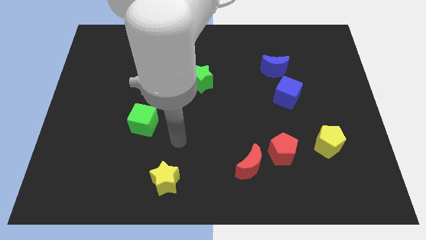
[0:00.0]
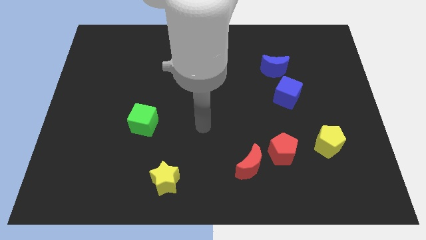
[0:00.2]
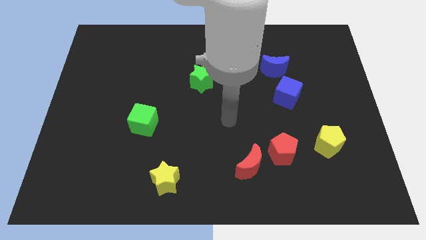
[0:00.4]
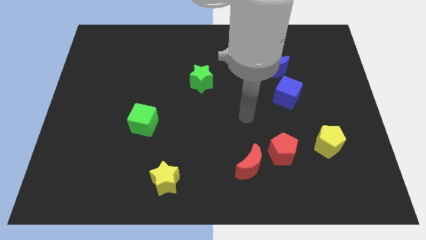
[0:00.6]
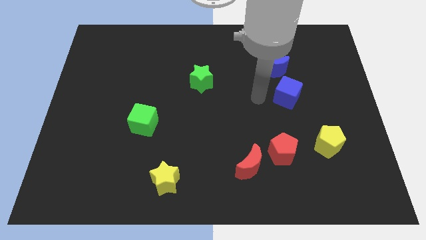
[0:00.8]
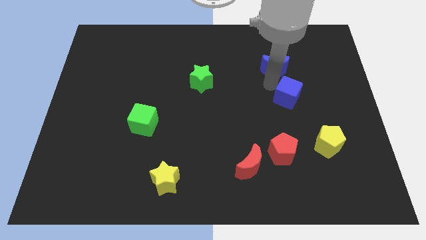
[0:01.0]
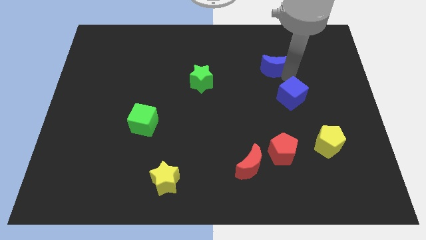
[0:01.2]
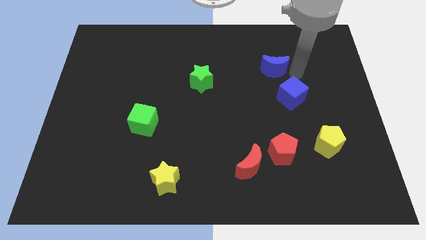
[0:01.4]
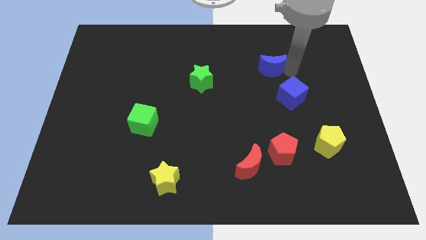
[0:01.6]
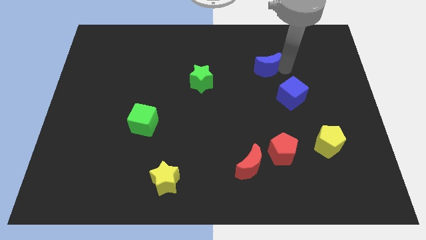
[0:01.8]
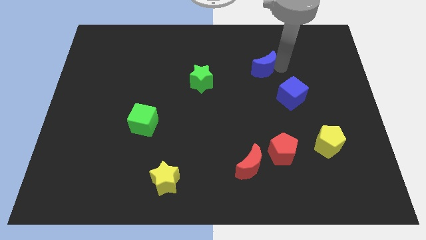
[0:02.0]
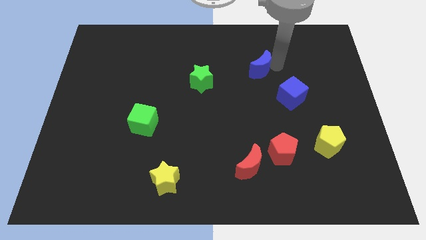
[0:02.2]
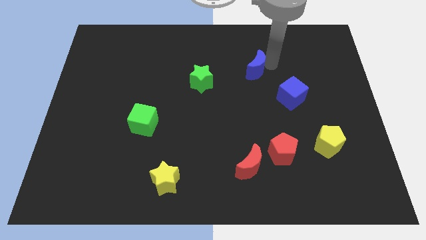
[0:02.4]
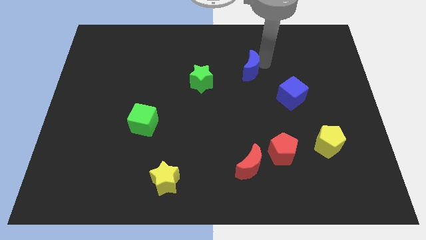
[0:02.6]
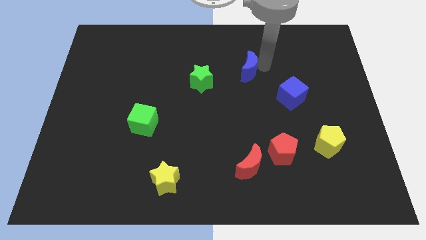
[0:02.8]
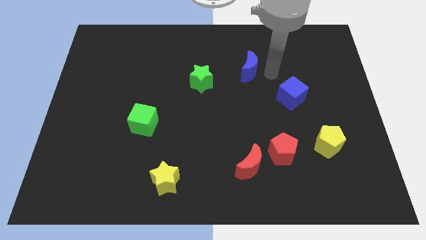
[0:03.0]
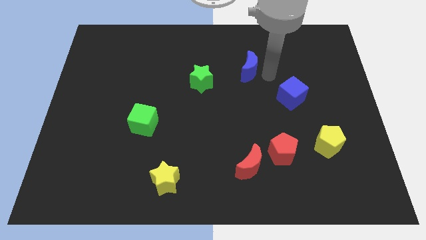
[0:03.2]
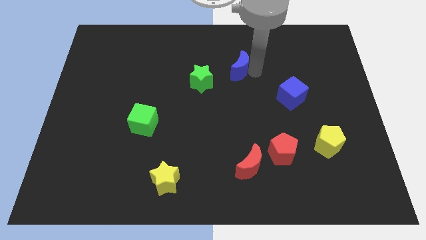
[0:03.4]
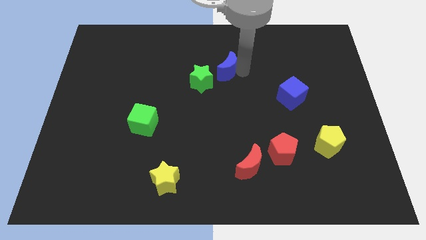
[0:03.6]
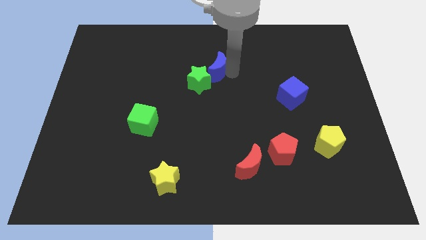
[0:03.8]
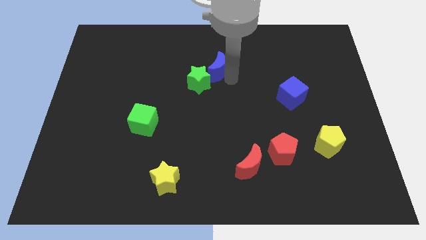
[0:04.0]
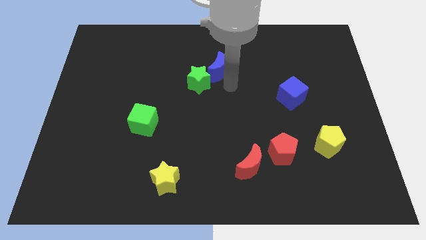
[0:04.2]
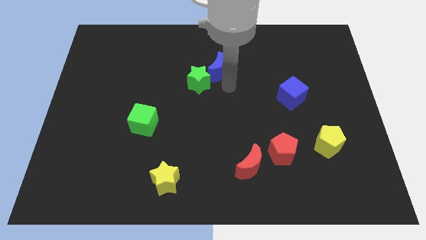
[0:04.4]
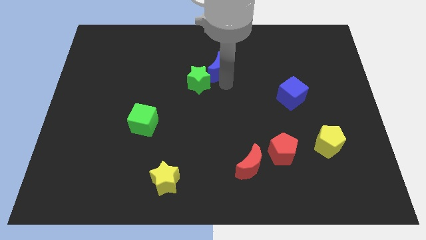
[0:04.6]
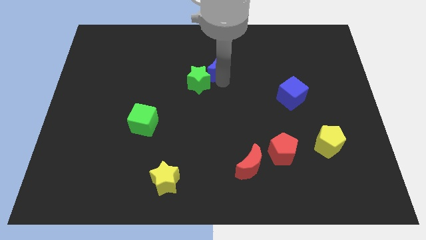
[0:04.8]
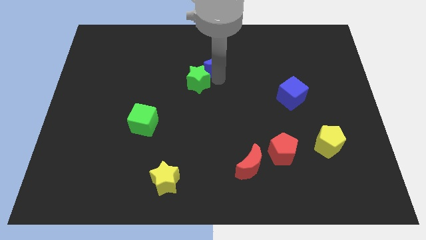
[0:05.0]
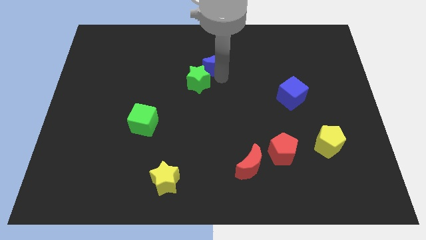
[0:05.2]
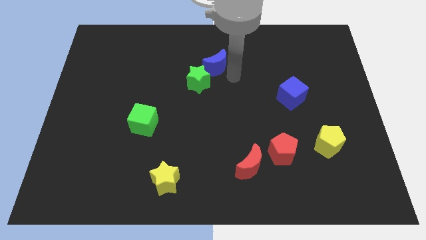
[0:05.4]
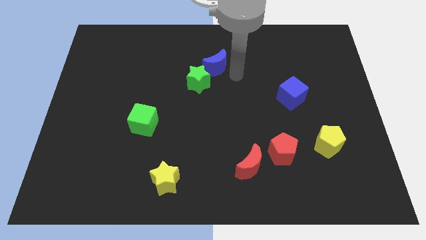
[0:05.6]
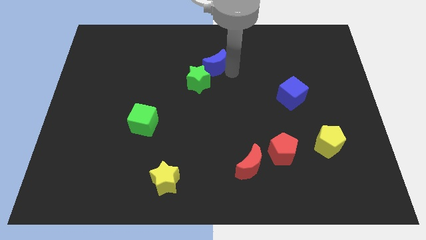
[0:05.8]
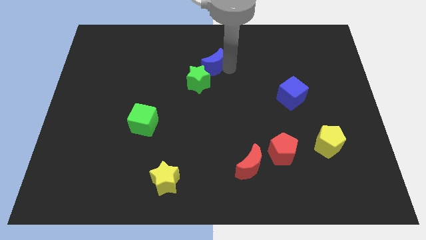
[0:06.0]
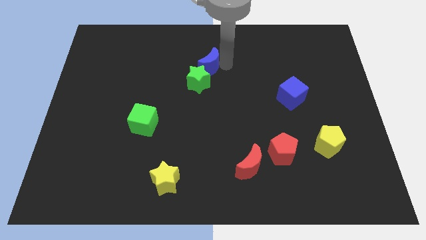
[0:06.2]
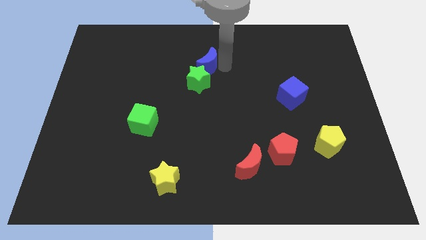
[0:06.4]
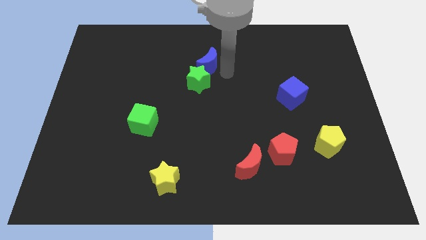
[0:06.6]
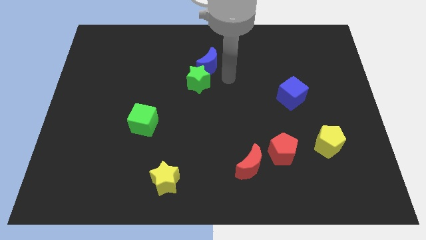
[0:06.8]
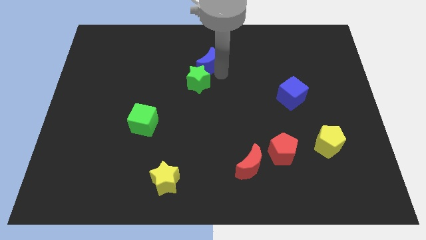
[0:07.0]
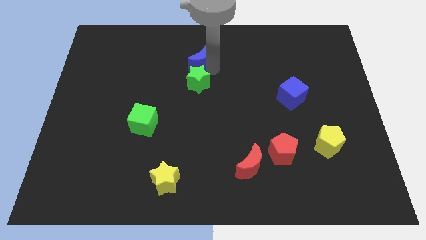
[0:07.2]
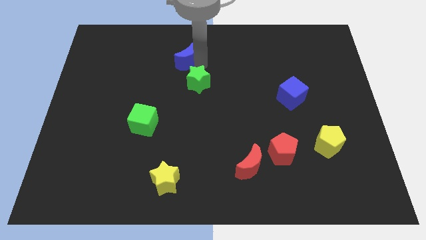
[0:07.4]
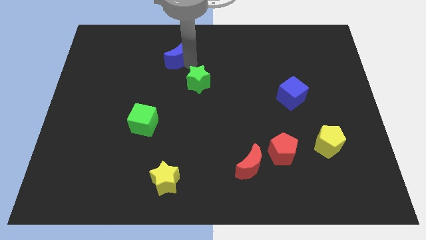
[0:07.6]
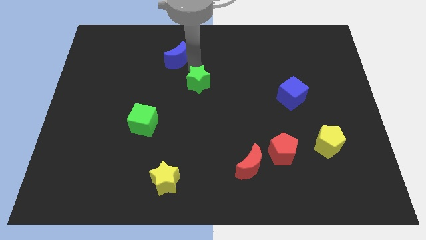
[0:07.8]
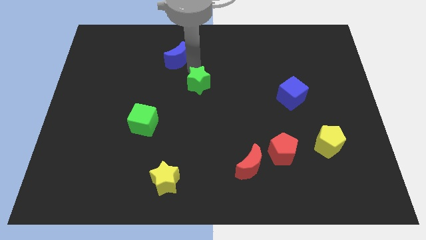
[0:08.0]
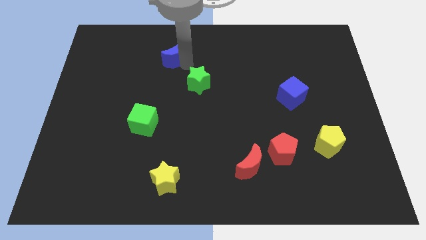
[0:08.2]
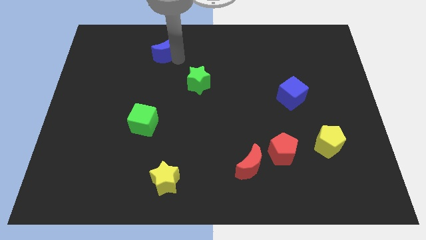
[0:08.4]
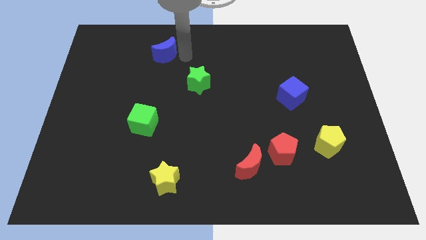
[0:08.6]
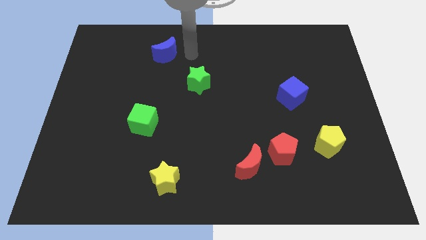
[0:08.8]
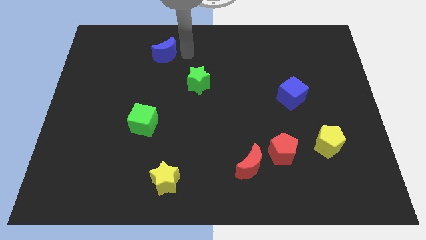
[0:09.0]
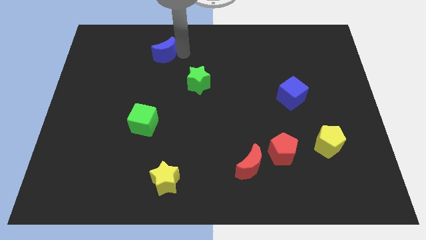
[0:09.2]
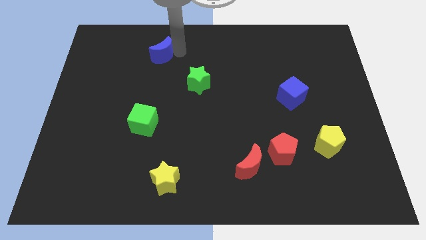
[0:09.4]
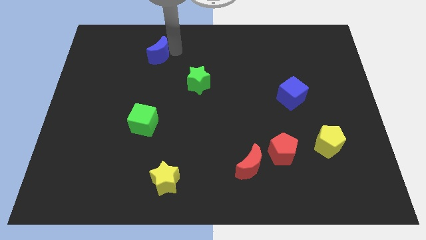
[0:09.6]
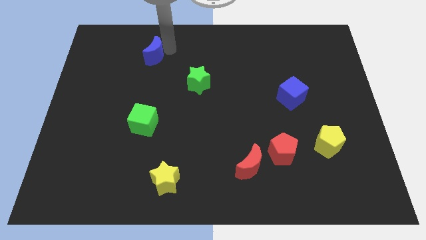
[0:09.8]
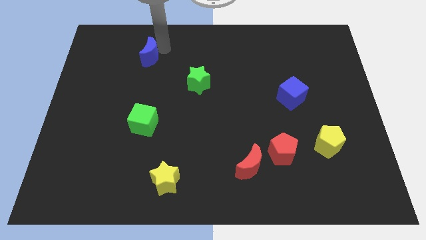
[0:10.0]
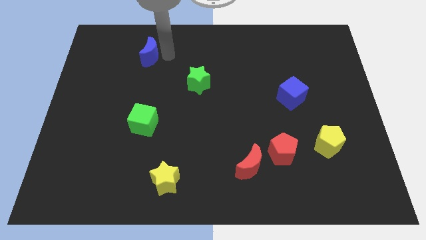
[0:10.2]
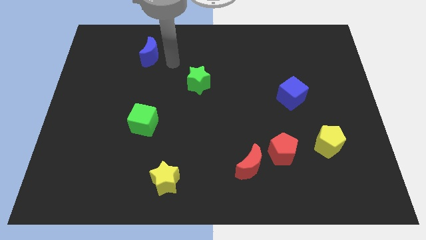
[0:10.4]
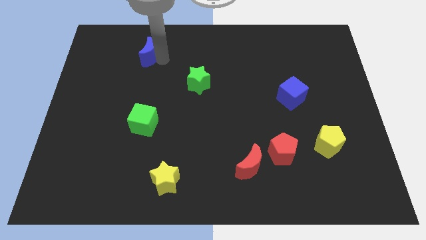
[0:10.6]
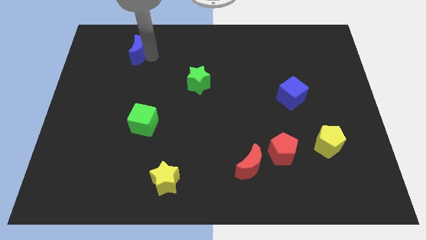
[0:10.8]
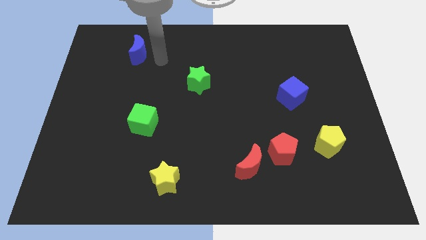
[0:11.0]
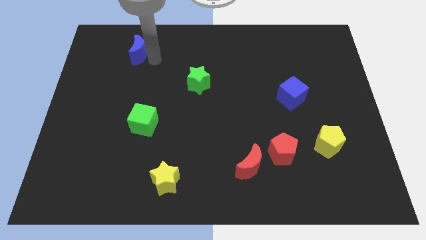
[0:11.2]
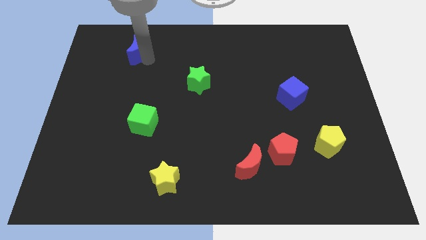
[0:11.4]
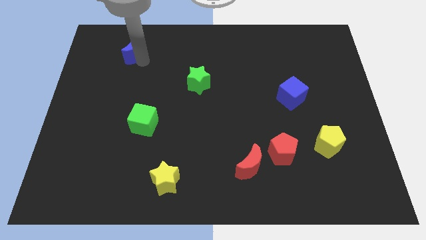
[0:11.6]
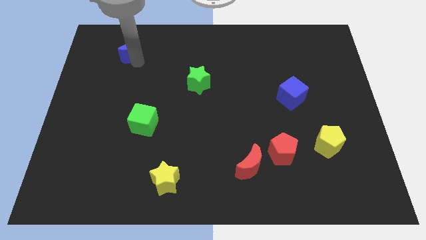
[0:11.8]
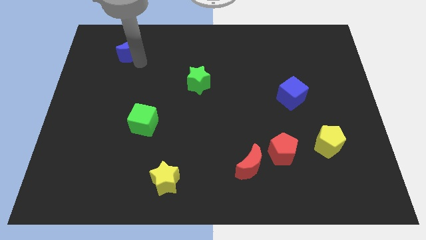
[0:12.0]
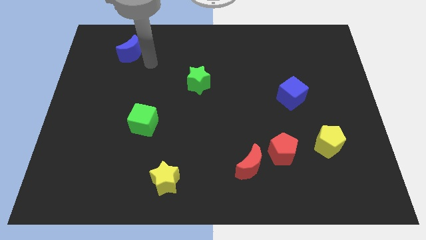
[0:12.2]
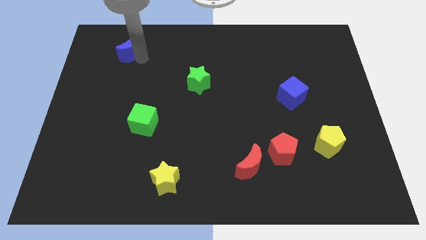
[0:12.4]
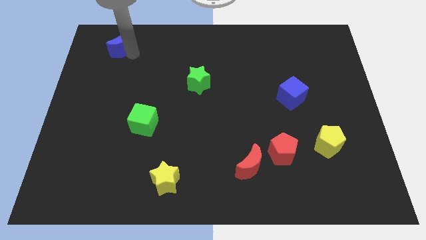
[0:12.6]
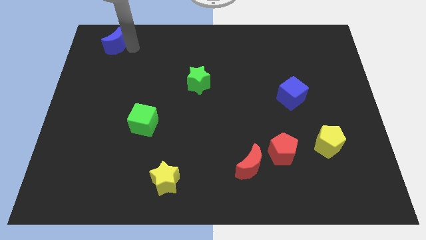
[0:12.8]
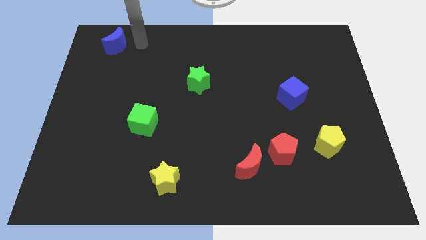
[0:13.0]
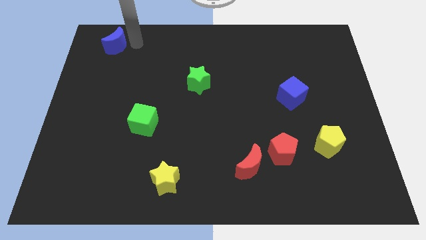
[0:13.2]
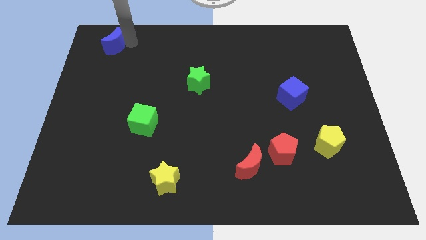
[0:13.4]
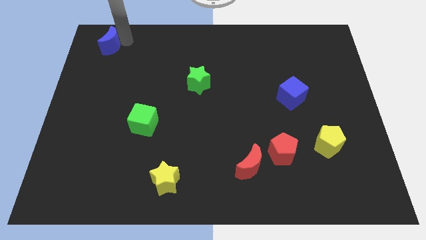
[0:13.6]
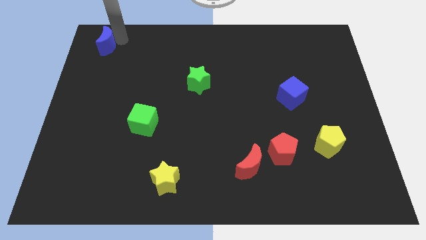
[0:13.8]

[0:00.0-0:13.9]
slide the blue moon to the top left

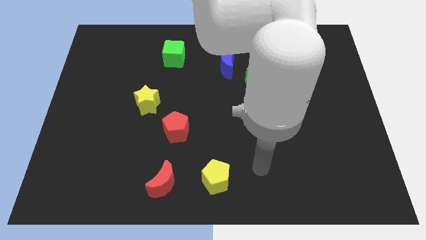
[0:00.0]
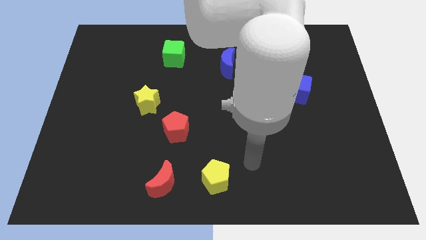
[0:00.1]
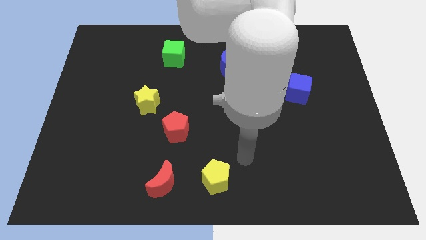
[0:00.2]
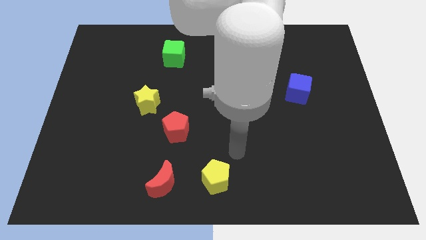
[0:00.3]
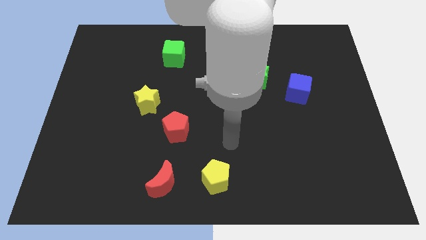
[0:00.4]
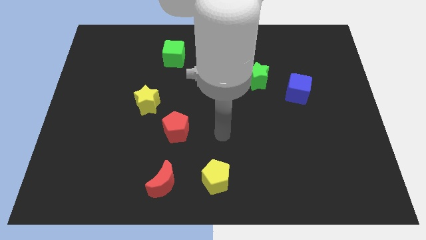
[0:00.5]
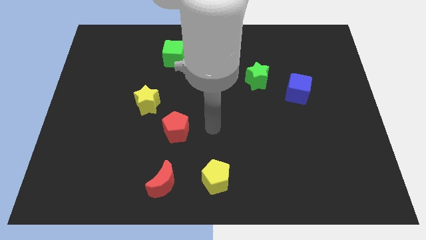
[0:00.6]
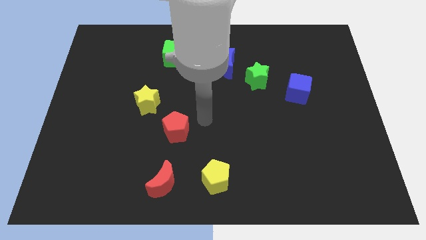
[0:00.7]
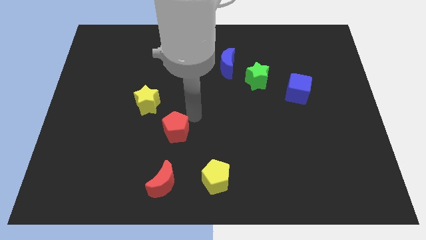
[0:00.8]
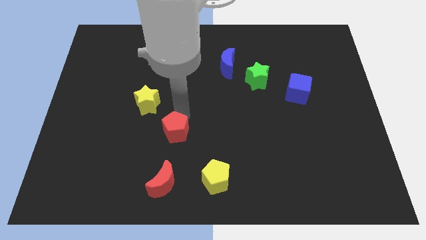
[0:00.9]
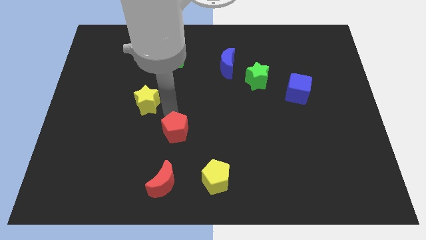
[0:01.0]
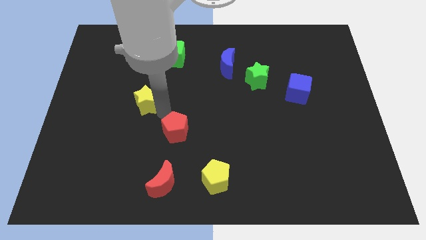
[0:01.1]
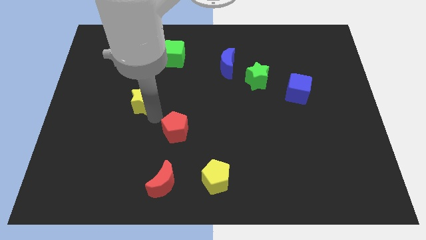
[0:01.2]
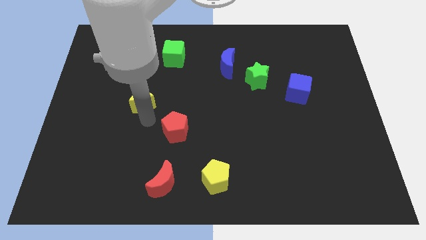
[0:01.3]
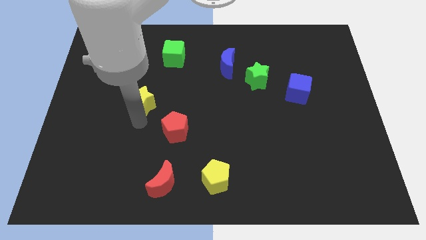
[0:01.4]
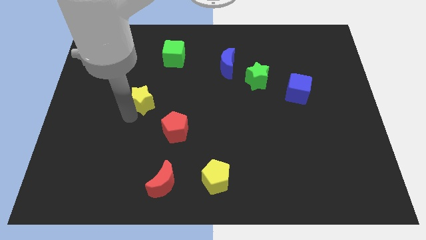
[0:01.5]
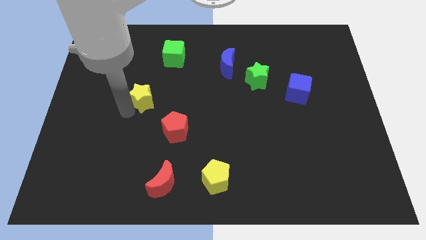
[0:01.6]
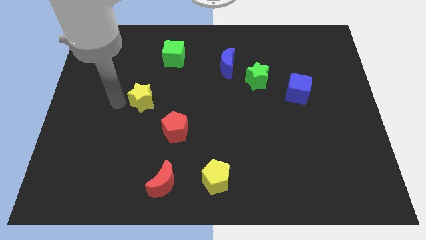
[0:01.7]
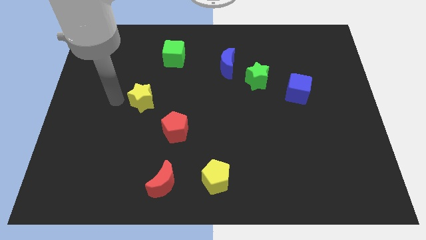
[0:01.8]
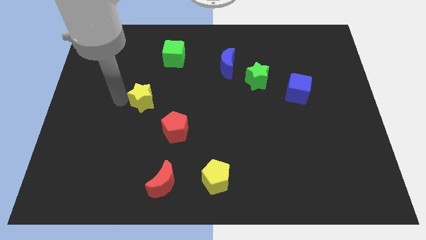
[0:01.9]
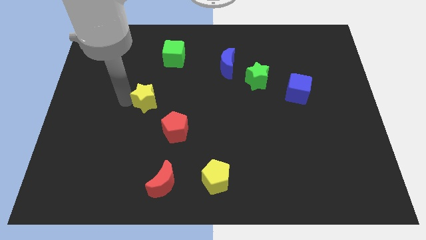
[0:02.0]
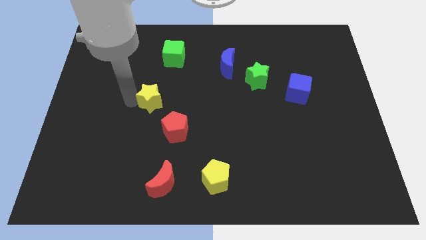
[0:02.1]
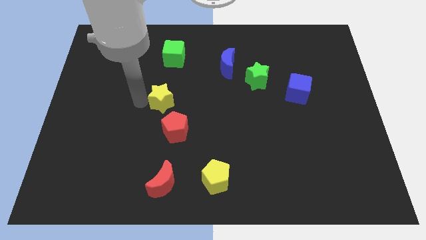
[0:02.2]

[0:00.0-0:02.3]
move the yellow star to the center
